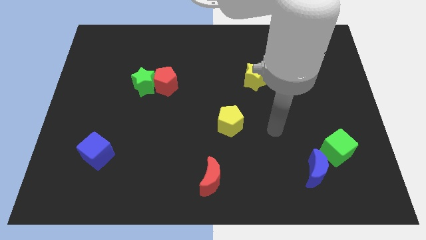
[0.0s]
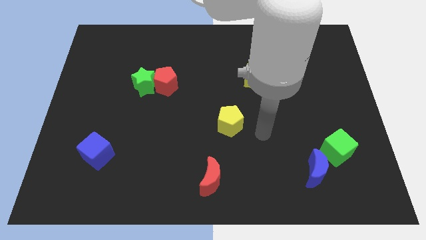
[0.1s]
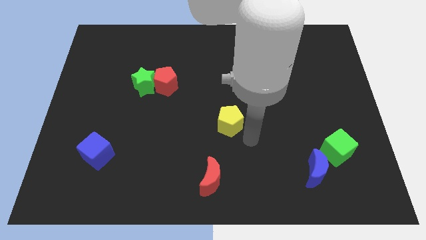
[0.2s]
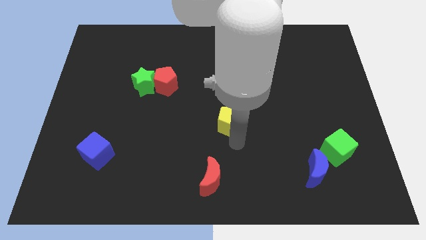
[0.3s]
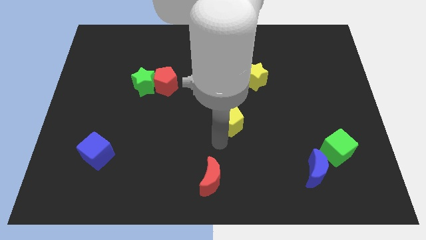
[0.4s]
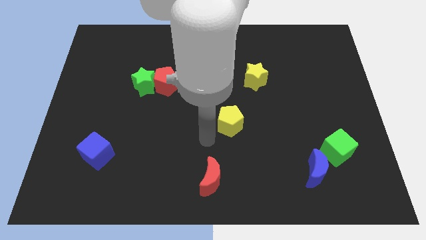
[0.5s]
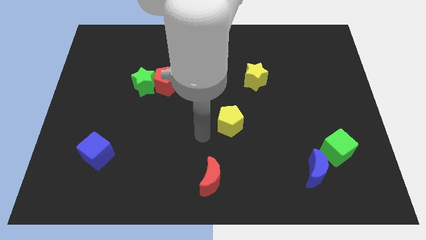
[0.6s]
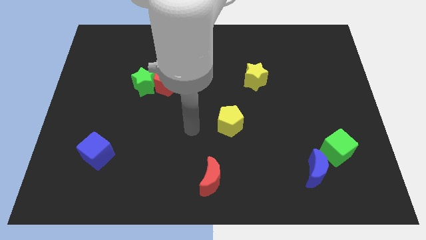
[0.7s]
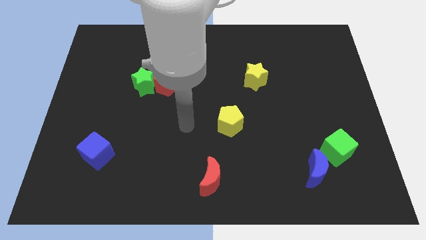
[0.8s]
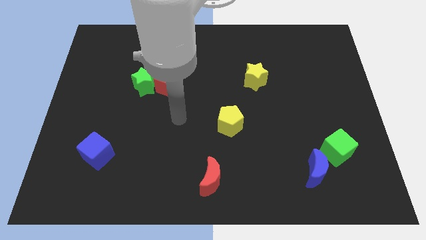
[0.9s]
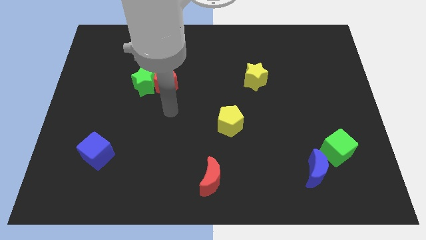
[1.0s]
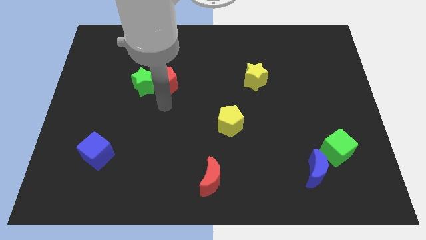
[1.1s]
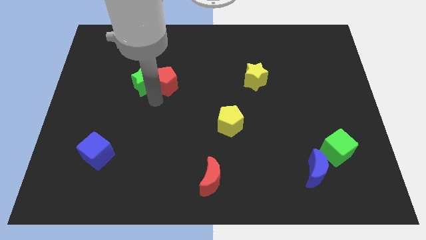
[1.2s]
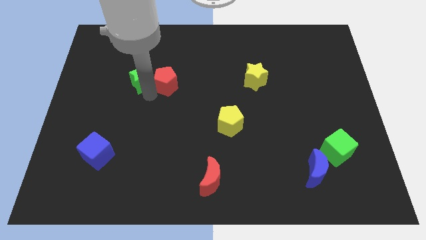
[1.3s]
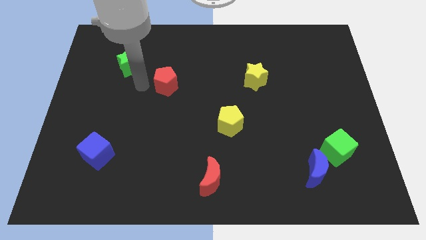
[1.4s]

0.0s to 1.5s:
move the red pentagon away from the green star

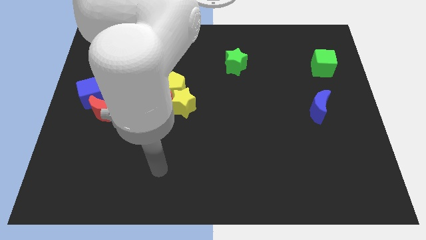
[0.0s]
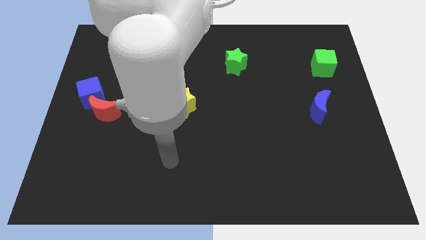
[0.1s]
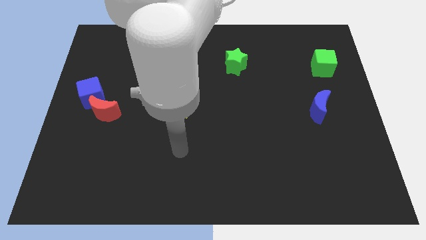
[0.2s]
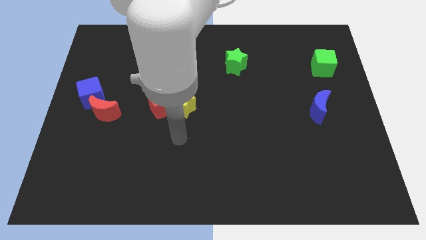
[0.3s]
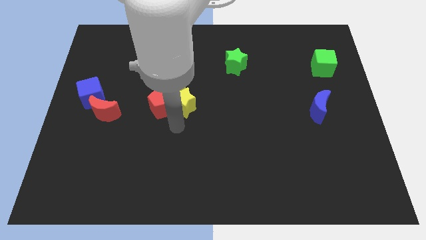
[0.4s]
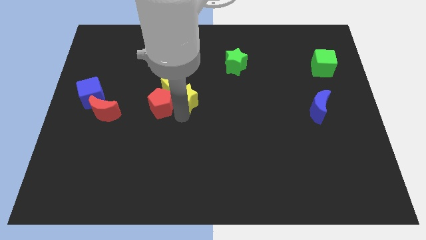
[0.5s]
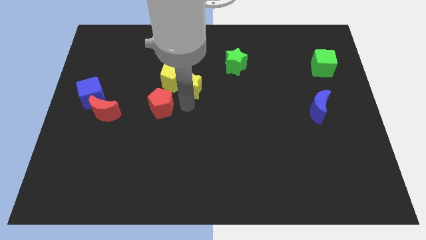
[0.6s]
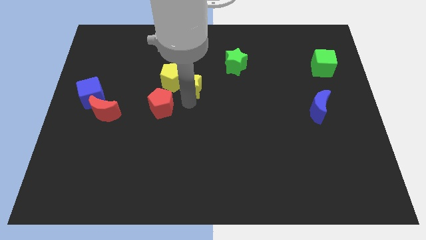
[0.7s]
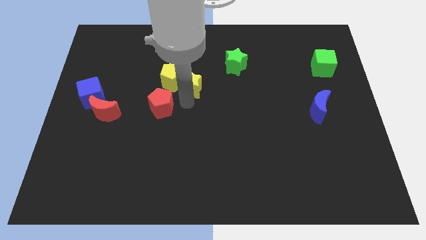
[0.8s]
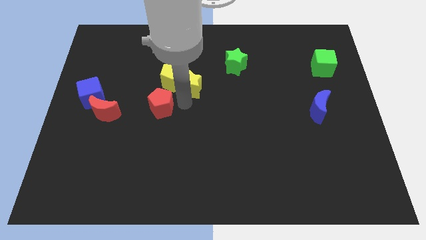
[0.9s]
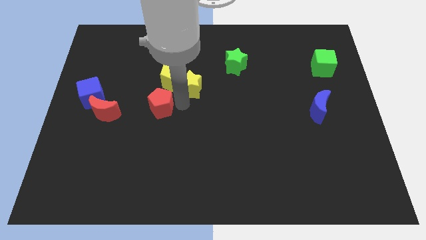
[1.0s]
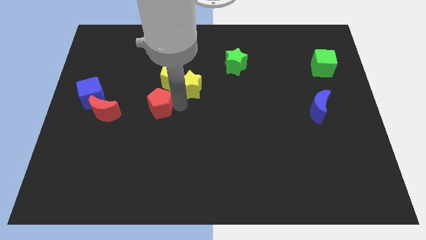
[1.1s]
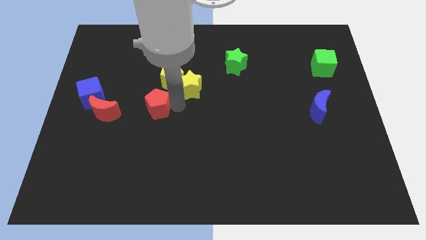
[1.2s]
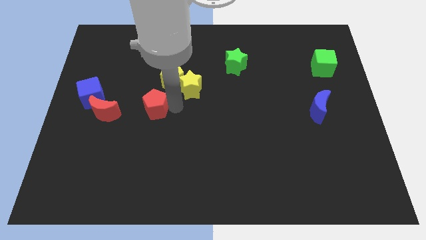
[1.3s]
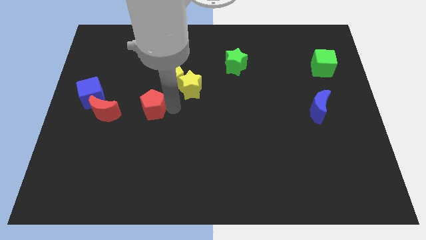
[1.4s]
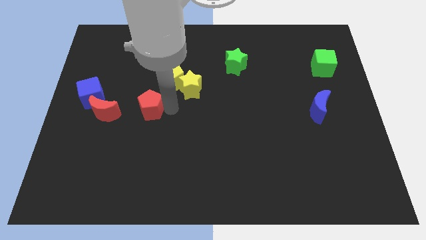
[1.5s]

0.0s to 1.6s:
separate the red pentagon from the yellow star and yellow pentagon

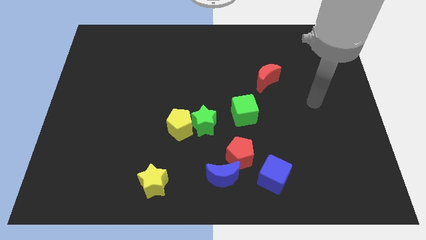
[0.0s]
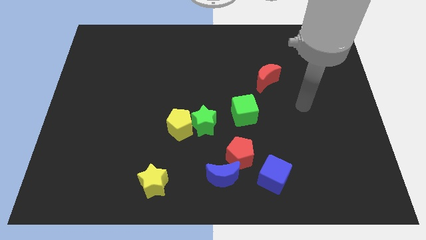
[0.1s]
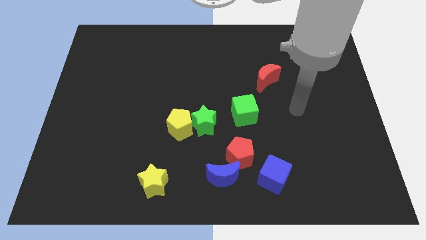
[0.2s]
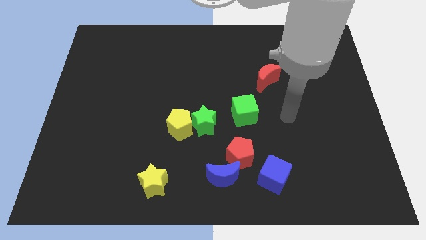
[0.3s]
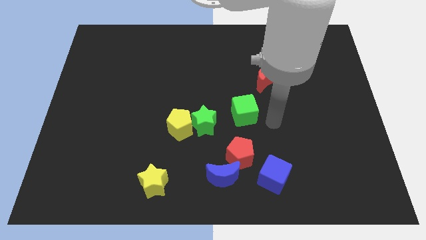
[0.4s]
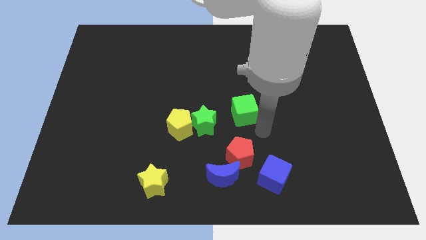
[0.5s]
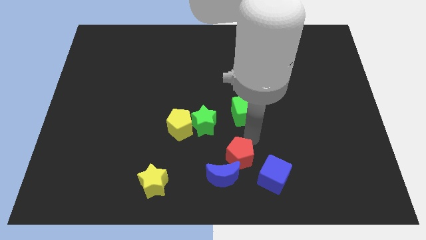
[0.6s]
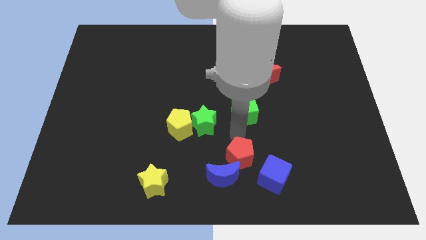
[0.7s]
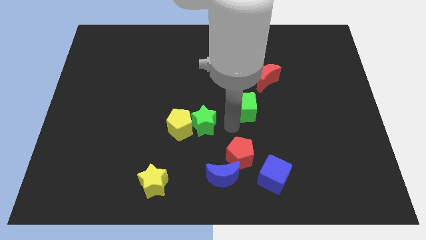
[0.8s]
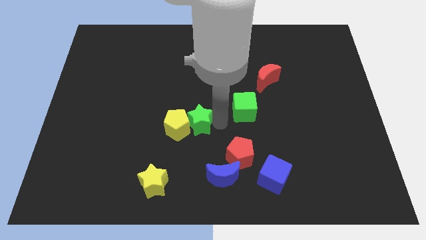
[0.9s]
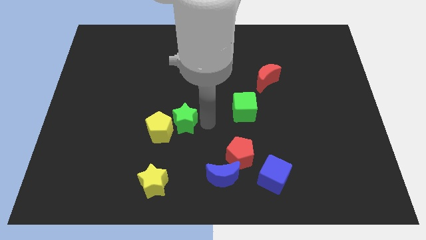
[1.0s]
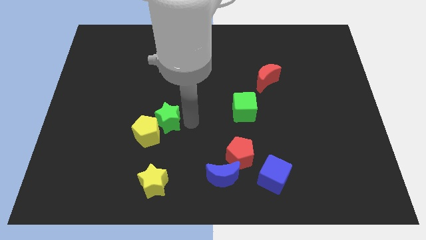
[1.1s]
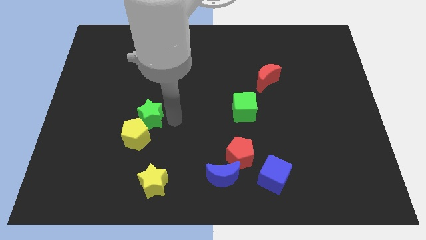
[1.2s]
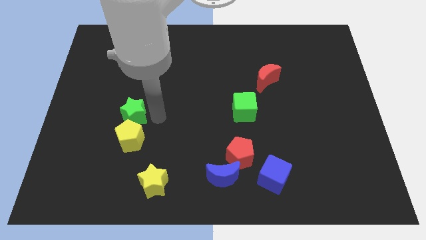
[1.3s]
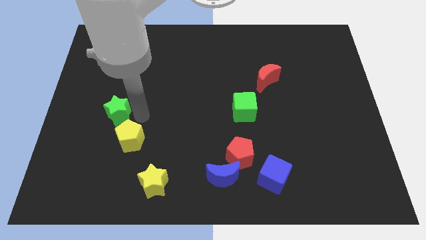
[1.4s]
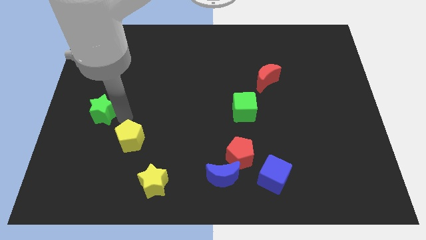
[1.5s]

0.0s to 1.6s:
pull the yellow pentagon apart from the green star

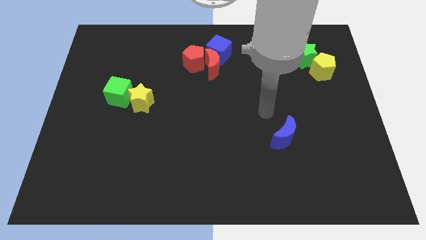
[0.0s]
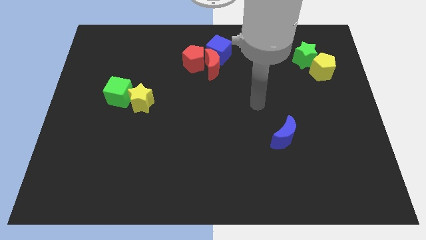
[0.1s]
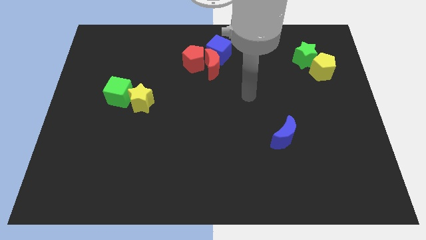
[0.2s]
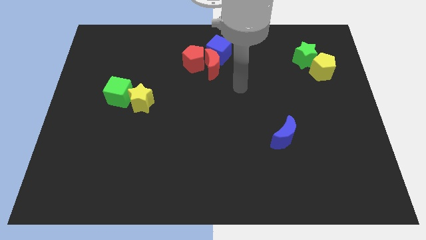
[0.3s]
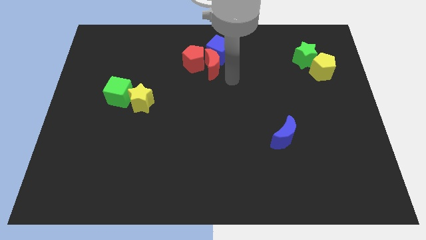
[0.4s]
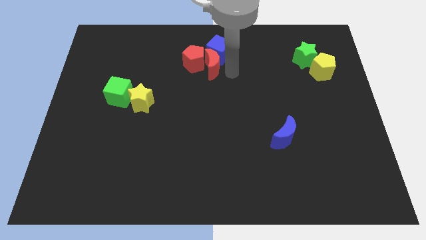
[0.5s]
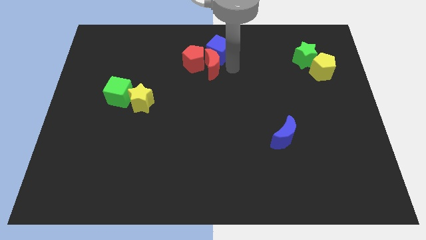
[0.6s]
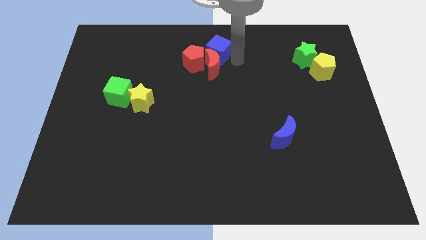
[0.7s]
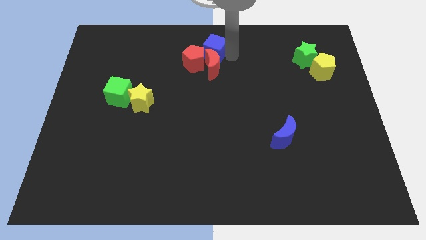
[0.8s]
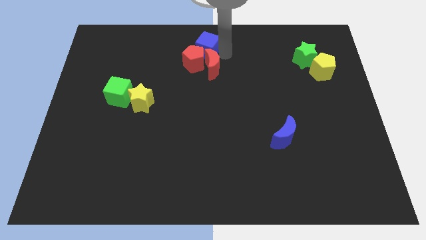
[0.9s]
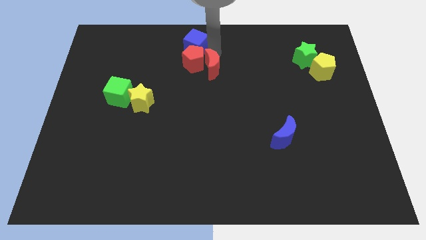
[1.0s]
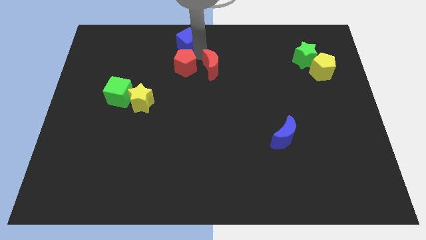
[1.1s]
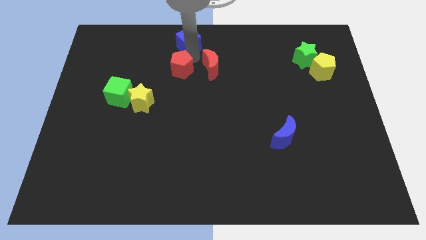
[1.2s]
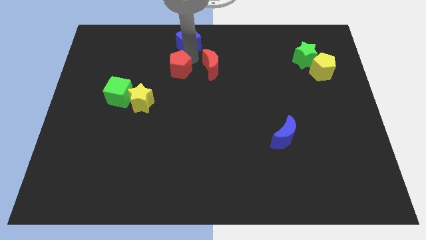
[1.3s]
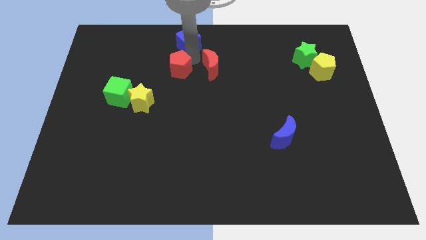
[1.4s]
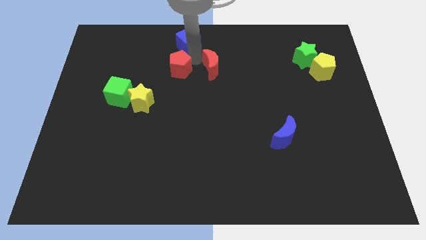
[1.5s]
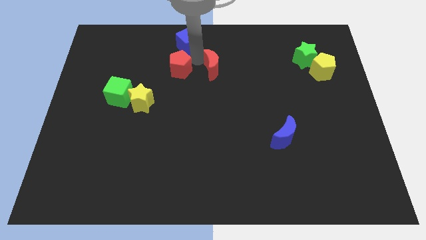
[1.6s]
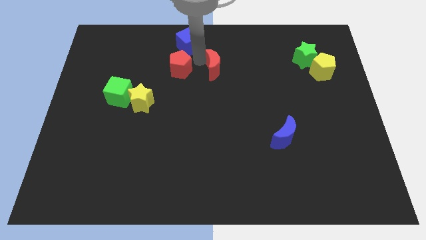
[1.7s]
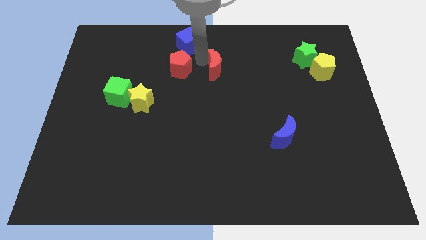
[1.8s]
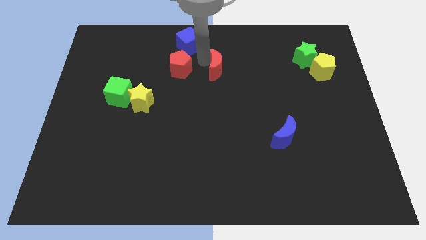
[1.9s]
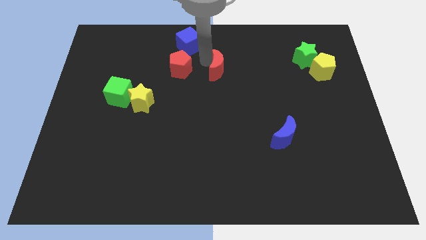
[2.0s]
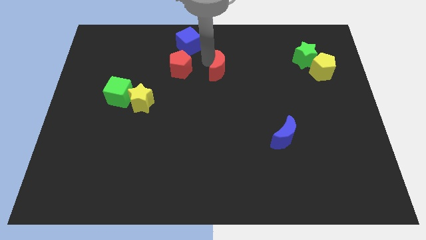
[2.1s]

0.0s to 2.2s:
separate the red moon from the red pentagon and blue cube

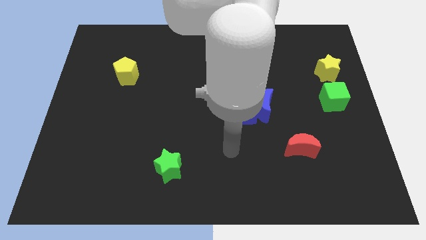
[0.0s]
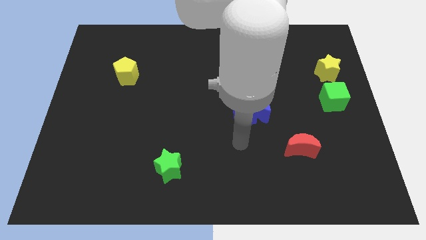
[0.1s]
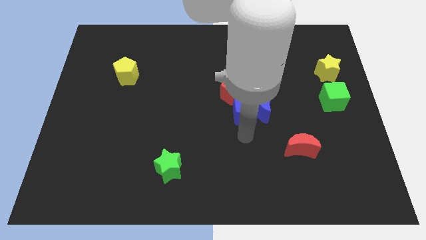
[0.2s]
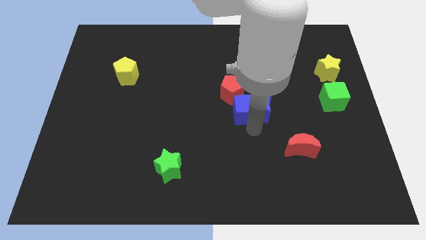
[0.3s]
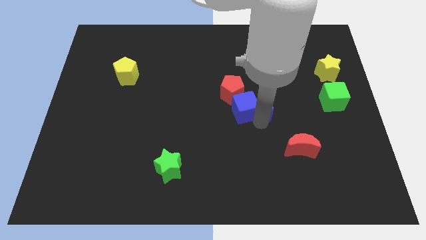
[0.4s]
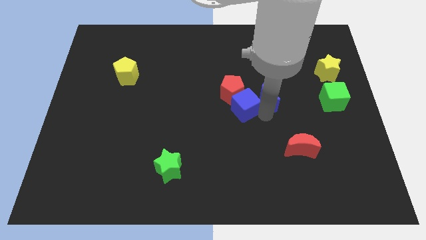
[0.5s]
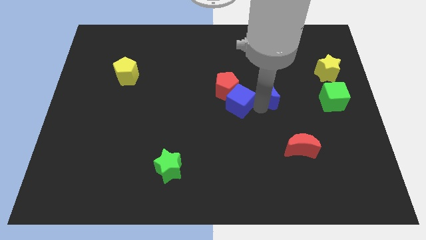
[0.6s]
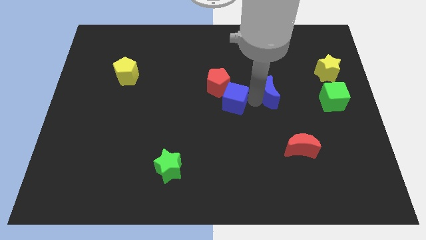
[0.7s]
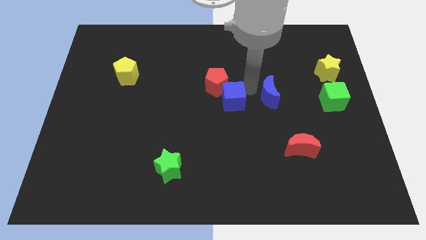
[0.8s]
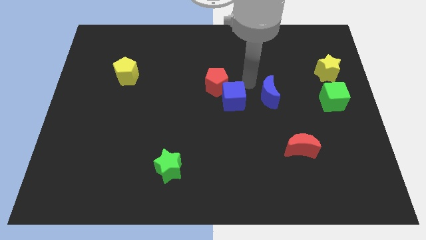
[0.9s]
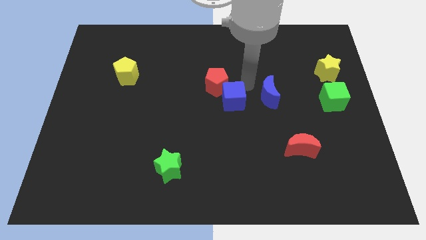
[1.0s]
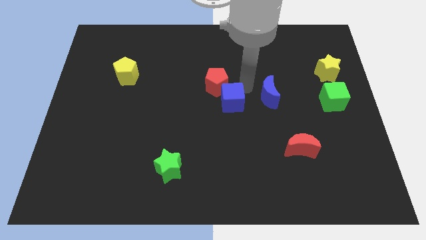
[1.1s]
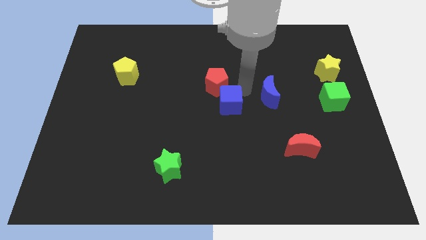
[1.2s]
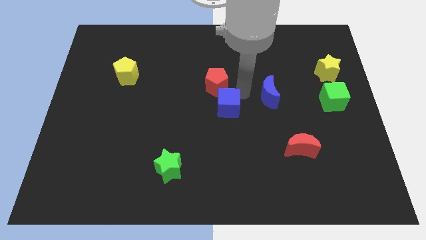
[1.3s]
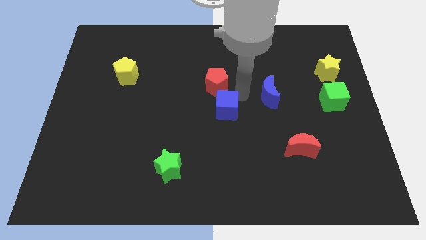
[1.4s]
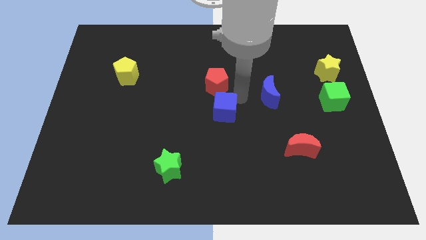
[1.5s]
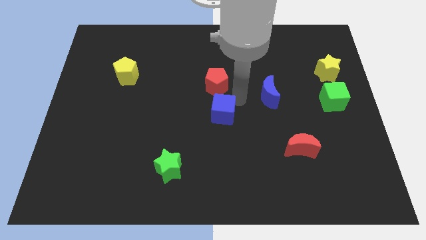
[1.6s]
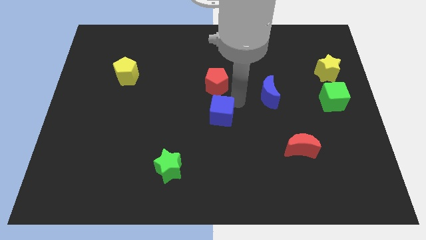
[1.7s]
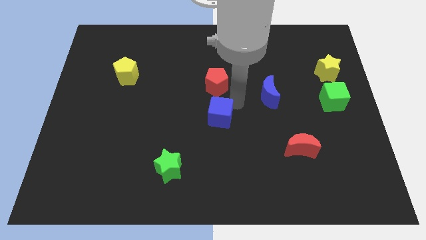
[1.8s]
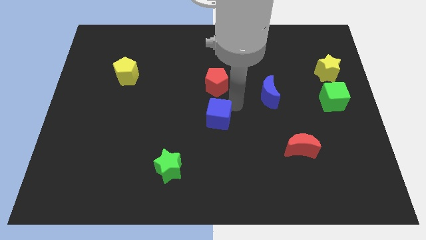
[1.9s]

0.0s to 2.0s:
separate the blue cube from the blue moon and red pentagon

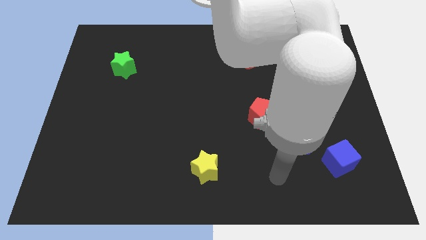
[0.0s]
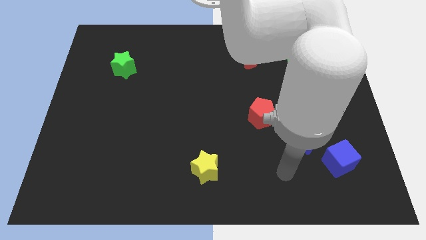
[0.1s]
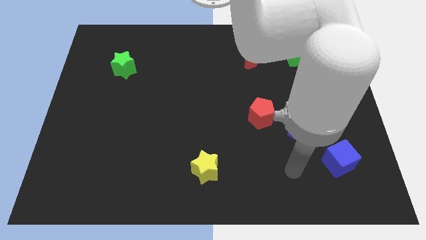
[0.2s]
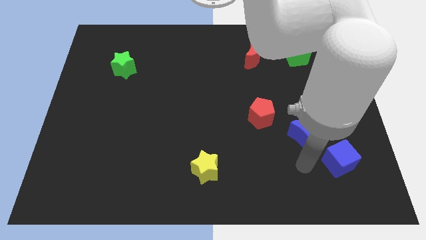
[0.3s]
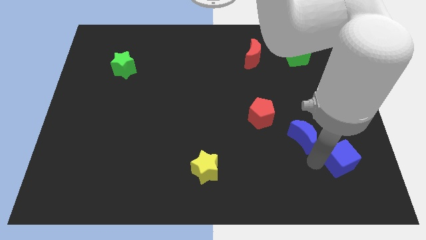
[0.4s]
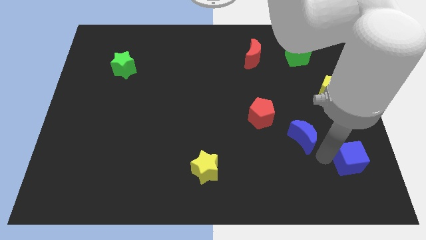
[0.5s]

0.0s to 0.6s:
pull the blue moon apart from the blue cube
